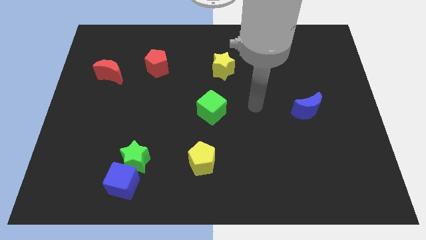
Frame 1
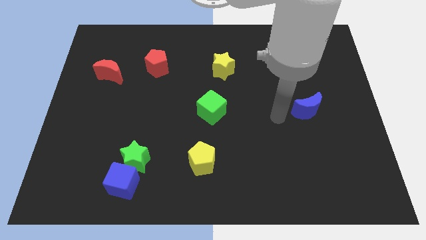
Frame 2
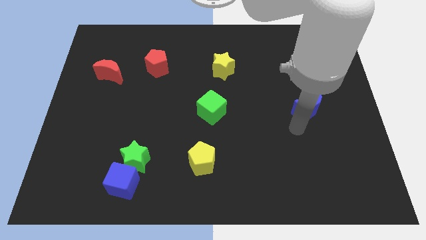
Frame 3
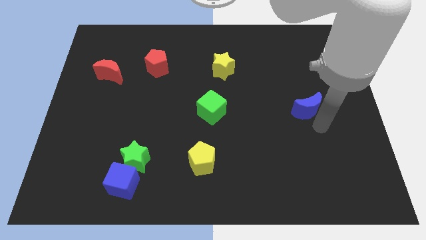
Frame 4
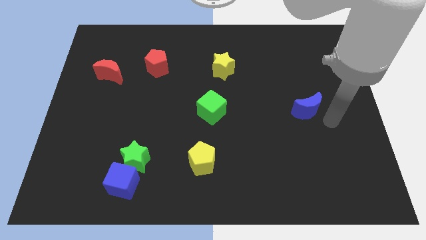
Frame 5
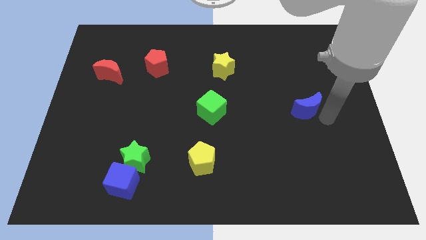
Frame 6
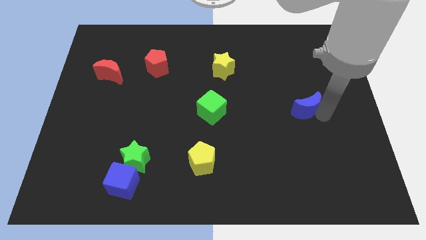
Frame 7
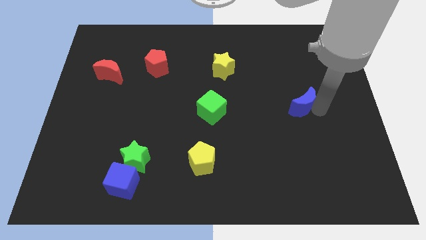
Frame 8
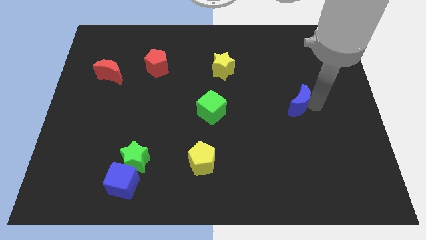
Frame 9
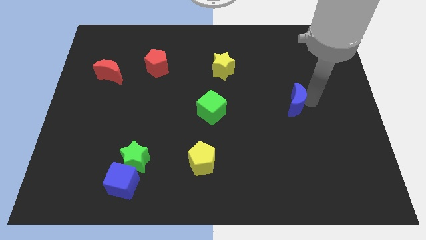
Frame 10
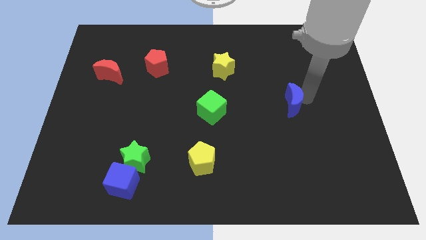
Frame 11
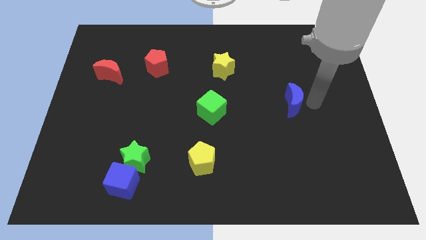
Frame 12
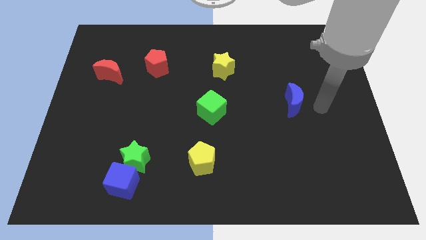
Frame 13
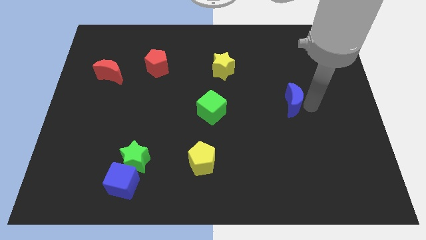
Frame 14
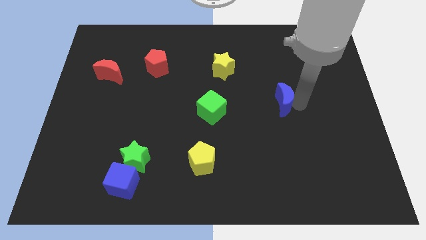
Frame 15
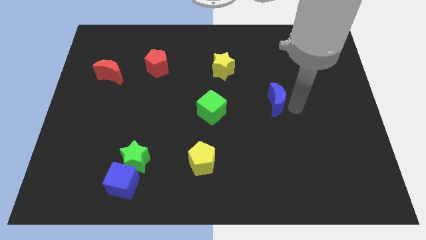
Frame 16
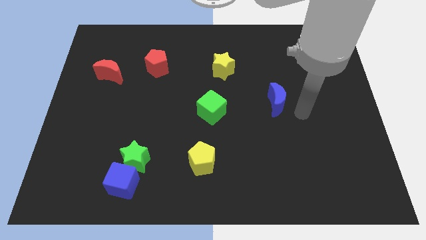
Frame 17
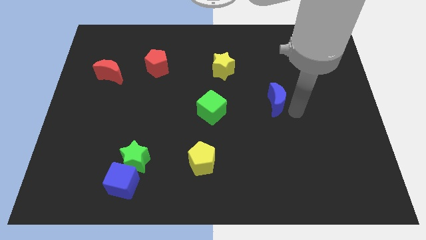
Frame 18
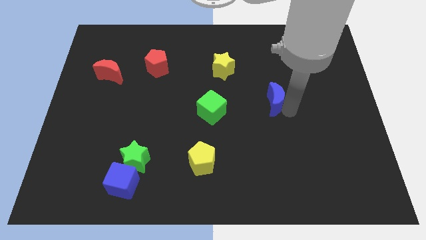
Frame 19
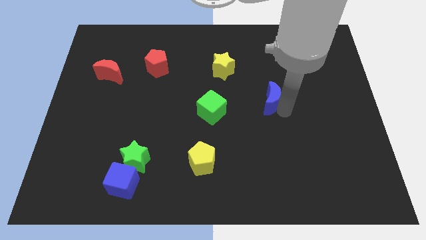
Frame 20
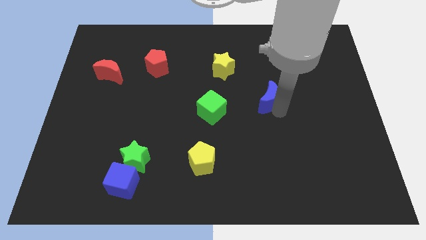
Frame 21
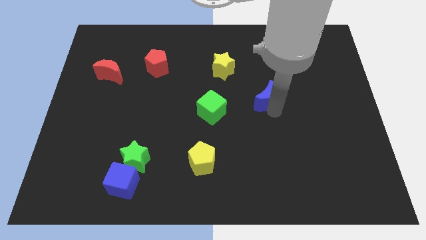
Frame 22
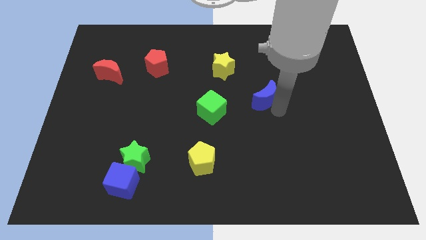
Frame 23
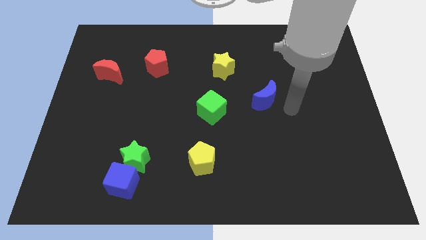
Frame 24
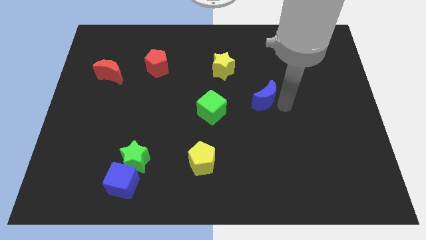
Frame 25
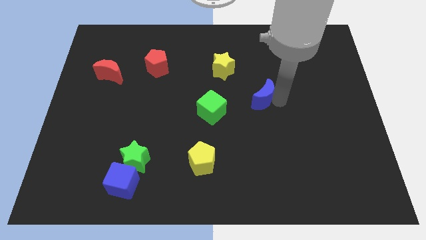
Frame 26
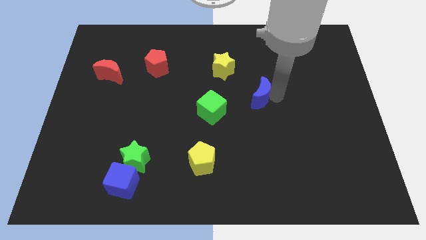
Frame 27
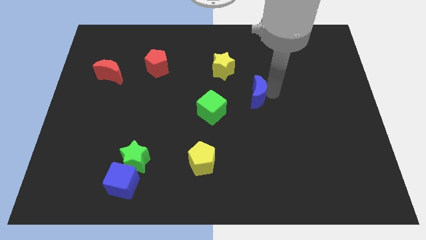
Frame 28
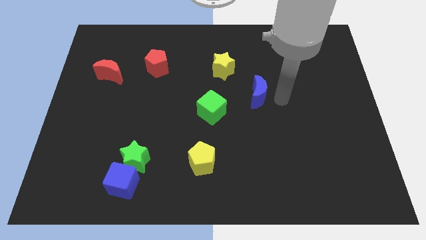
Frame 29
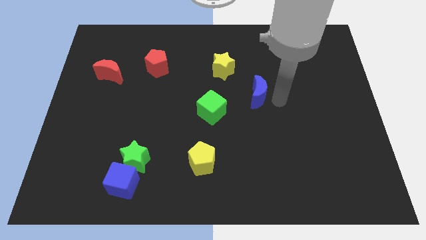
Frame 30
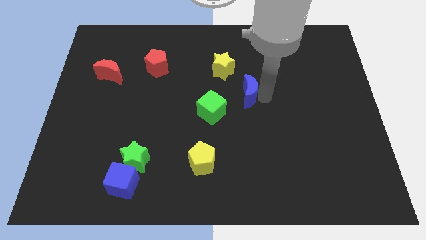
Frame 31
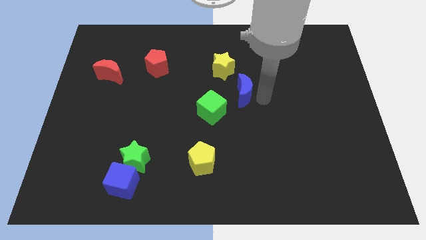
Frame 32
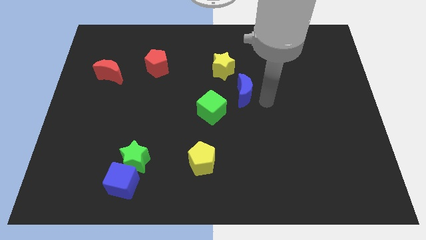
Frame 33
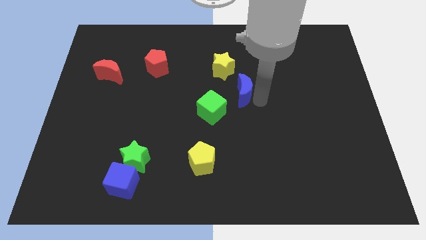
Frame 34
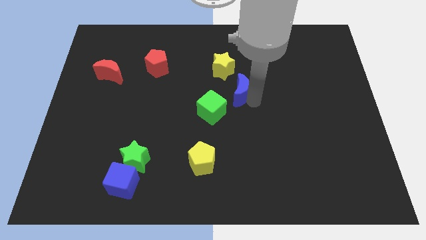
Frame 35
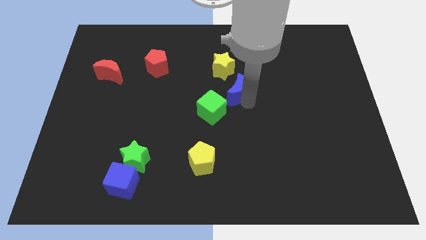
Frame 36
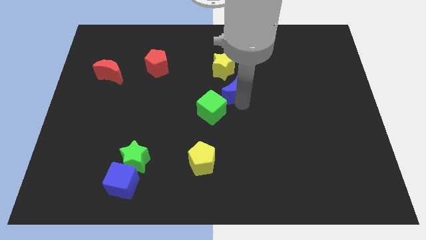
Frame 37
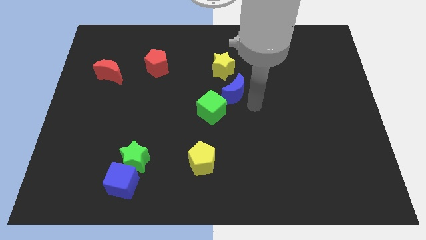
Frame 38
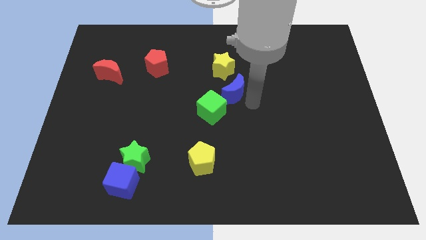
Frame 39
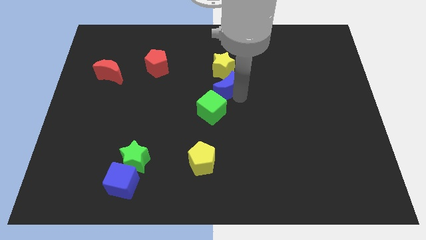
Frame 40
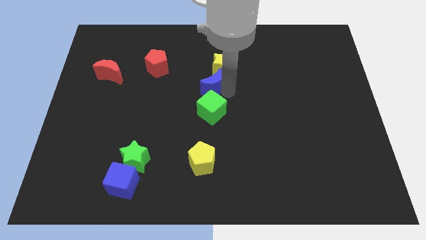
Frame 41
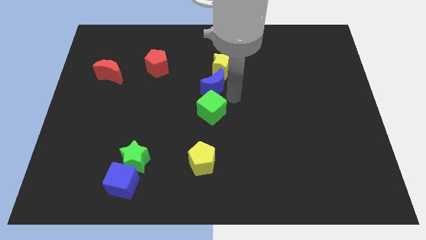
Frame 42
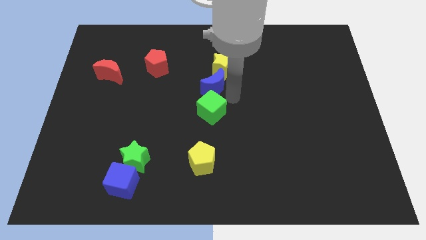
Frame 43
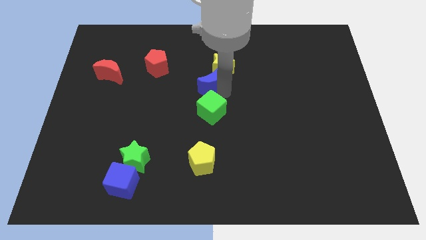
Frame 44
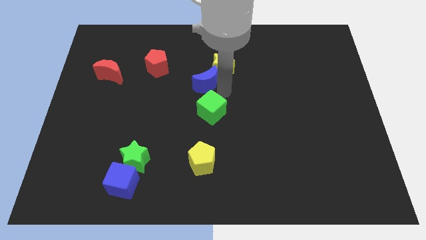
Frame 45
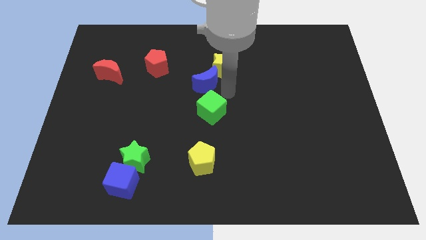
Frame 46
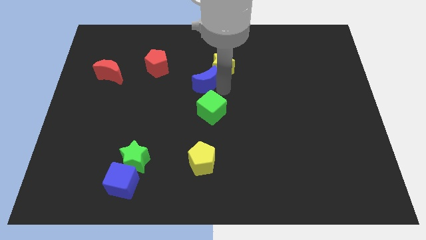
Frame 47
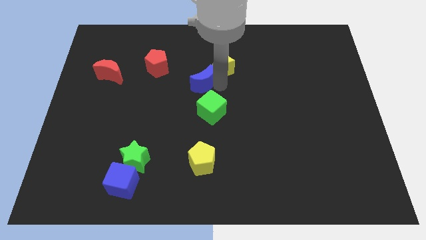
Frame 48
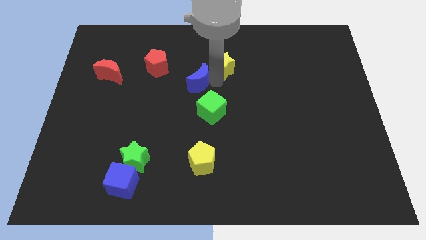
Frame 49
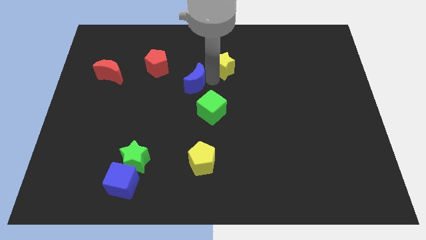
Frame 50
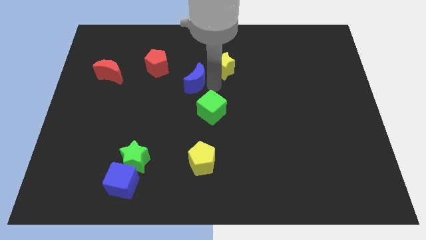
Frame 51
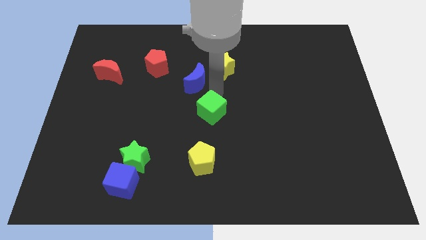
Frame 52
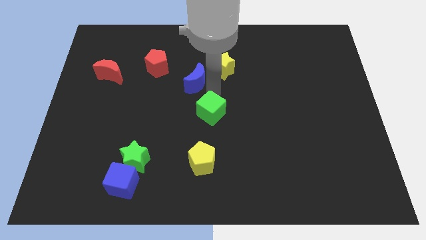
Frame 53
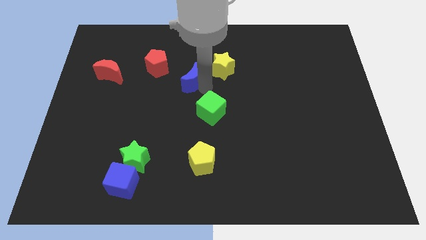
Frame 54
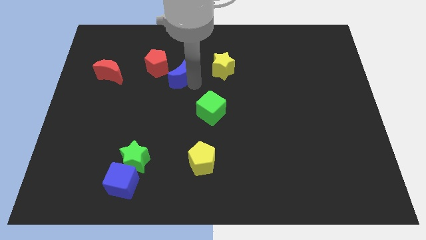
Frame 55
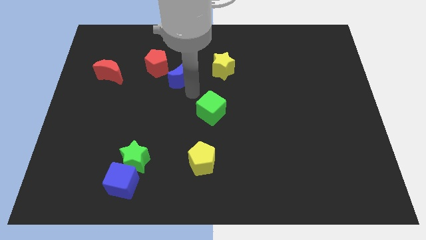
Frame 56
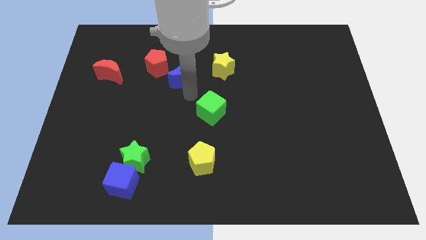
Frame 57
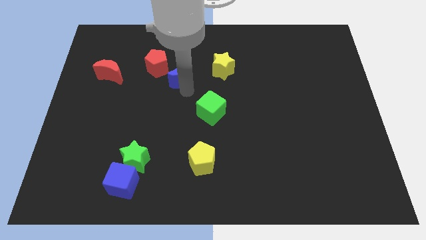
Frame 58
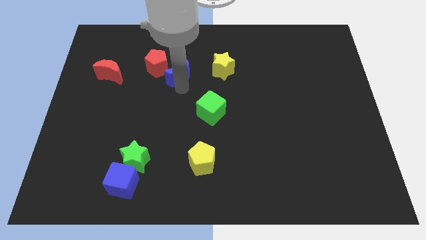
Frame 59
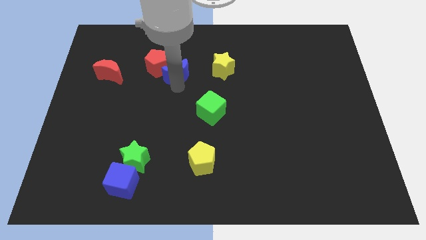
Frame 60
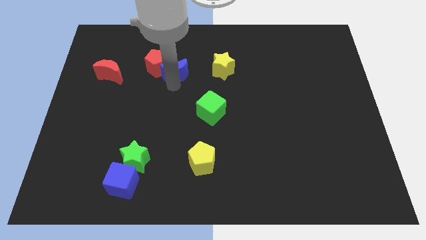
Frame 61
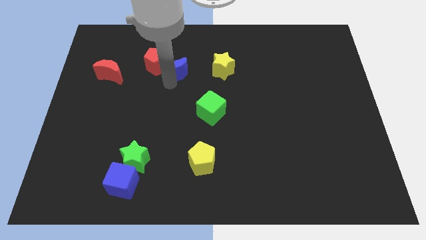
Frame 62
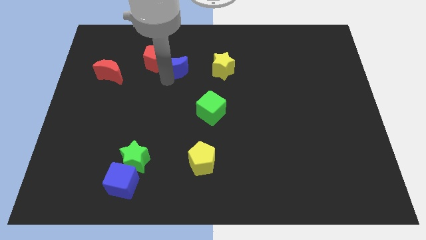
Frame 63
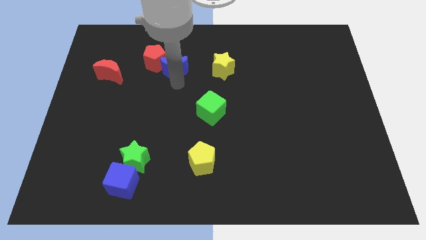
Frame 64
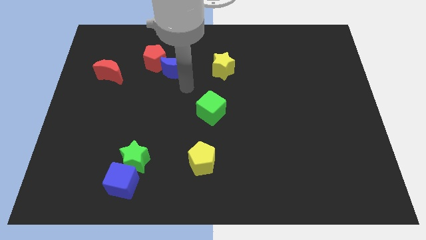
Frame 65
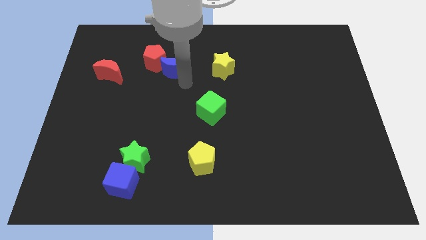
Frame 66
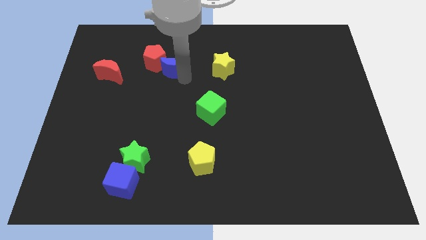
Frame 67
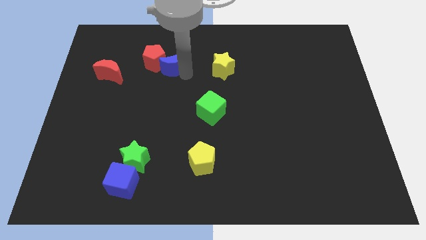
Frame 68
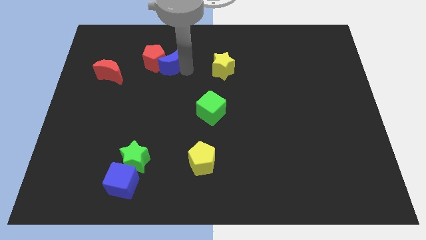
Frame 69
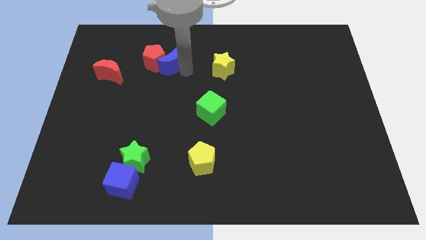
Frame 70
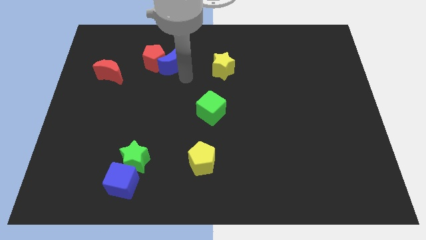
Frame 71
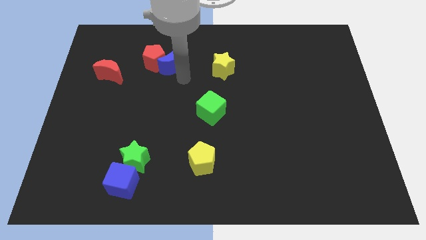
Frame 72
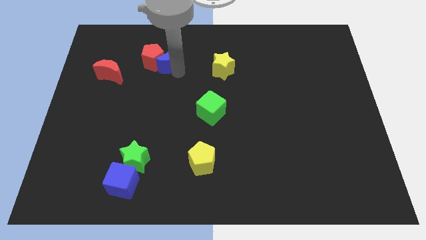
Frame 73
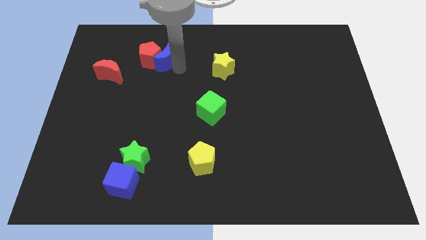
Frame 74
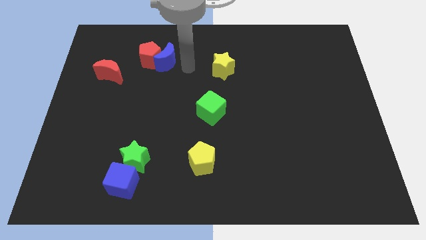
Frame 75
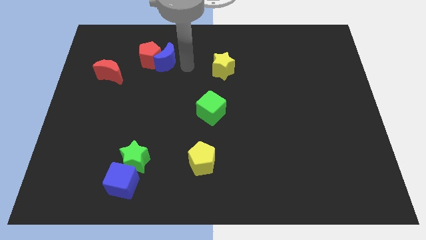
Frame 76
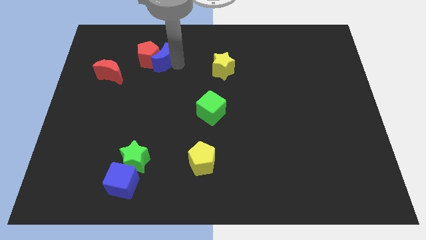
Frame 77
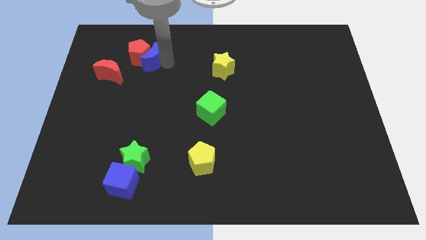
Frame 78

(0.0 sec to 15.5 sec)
push the blue moon diagonally up and to the right of the red moon

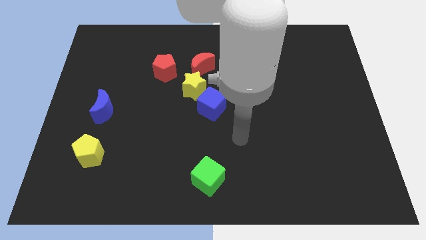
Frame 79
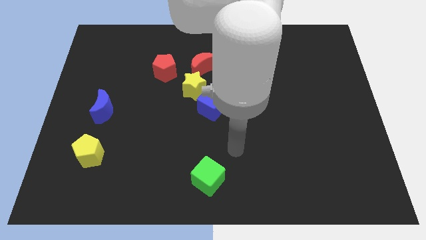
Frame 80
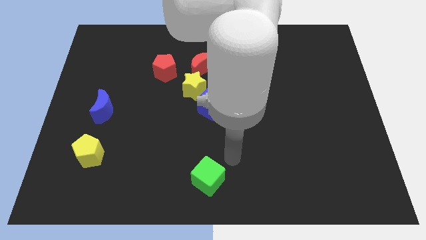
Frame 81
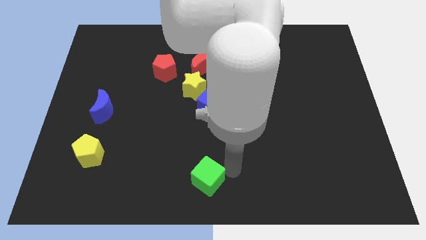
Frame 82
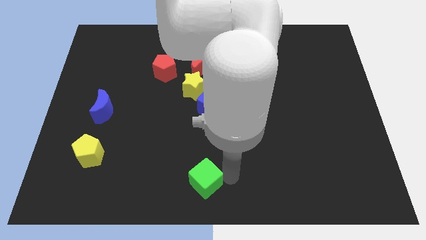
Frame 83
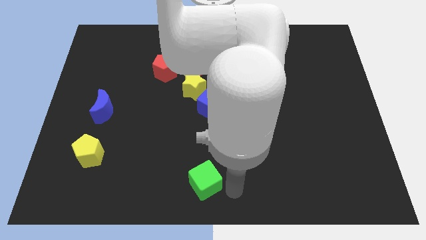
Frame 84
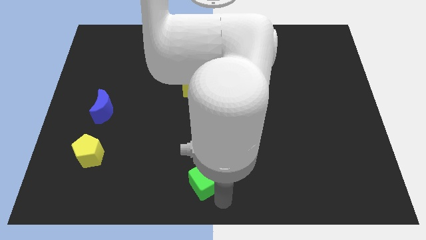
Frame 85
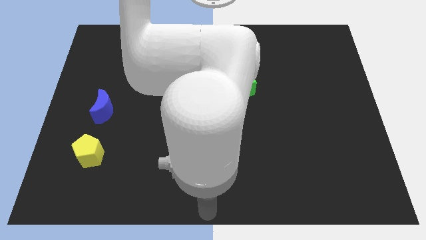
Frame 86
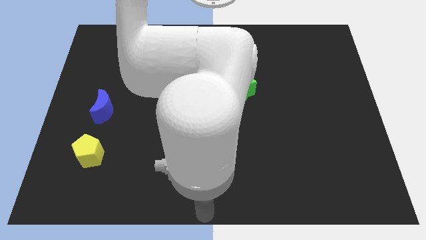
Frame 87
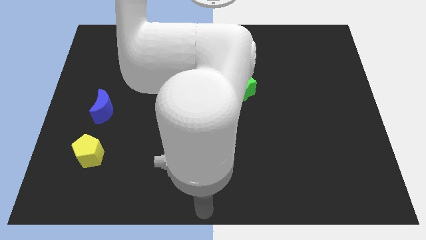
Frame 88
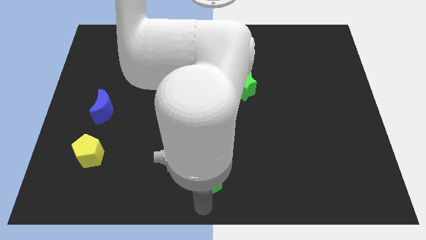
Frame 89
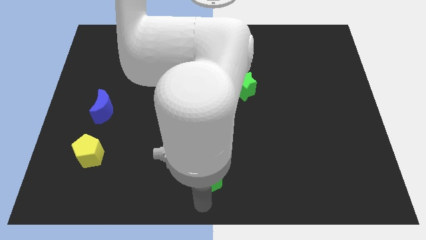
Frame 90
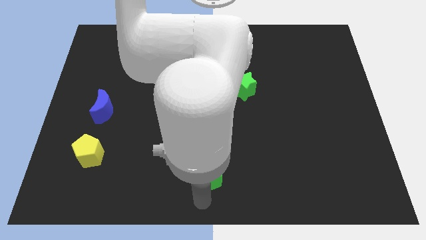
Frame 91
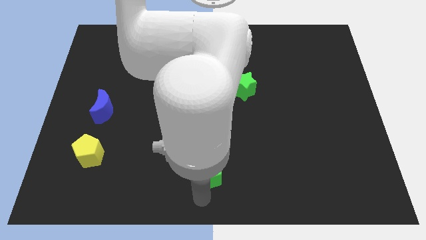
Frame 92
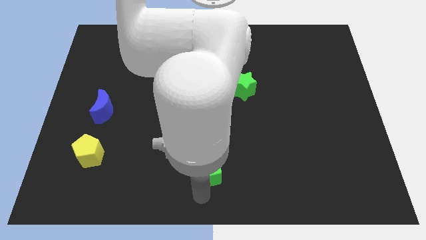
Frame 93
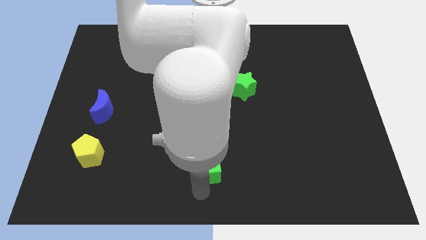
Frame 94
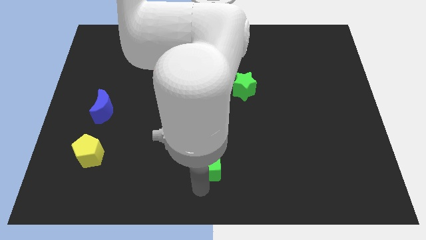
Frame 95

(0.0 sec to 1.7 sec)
put the green cube below the blue cube
